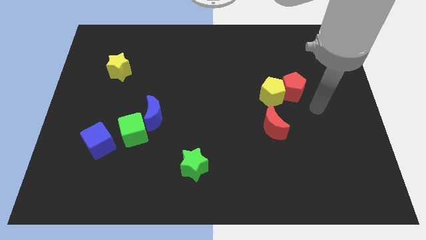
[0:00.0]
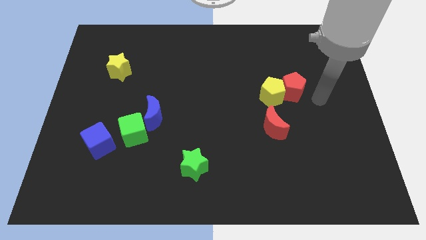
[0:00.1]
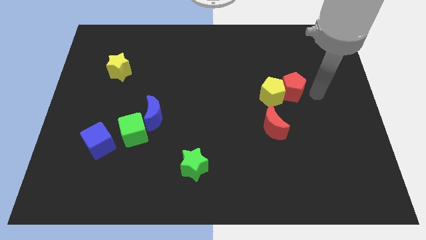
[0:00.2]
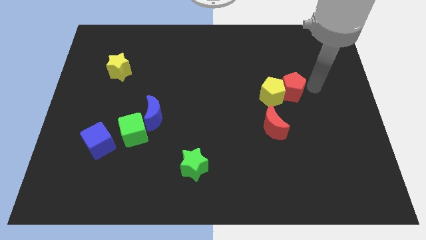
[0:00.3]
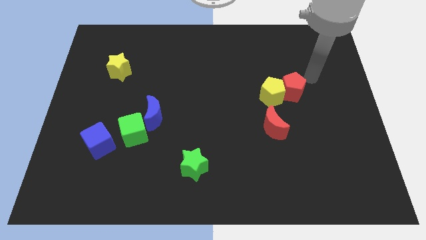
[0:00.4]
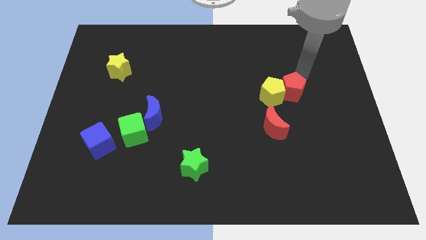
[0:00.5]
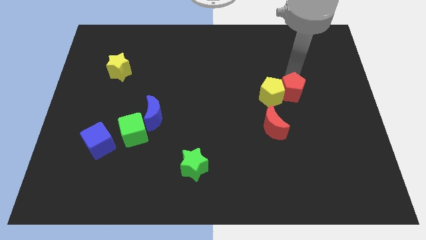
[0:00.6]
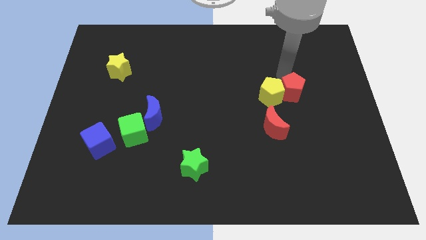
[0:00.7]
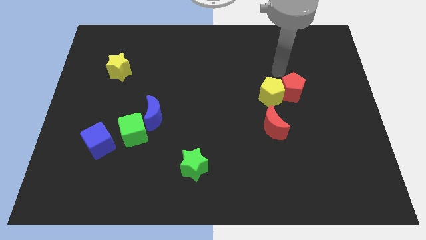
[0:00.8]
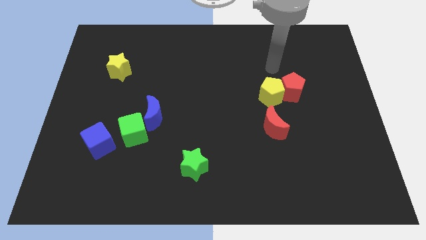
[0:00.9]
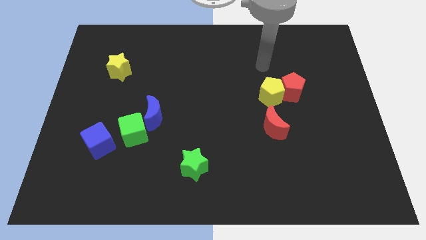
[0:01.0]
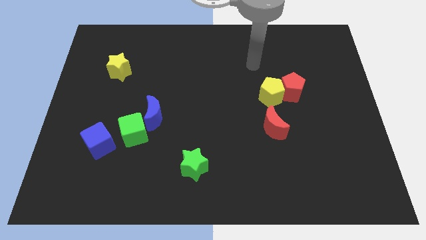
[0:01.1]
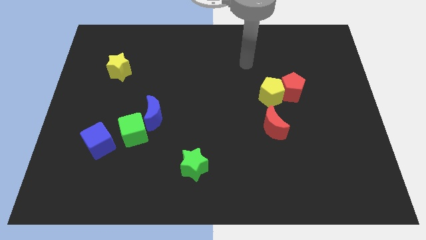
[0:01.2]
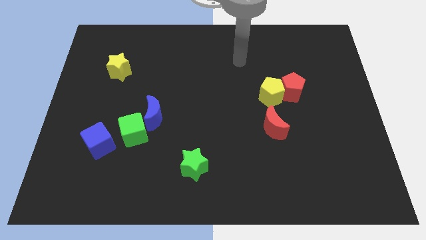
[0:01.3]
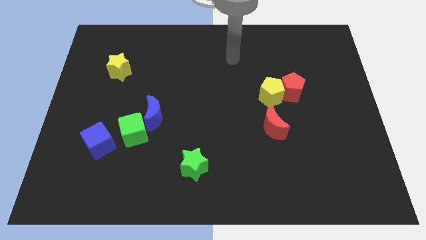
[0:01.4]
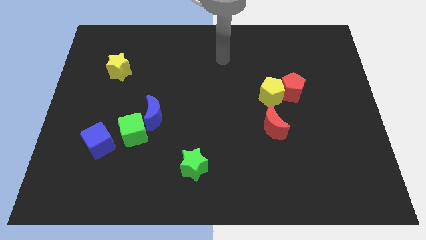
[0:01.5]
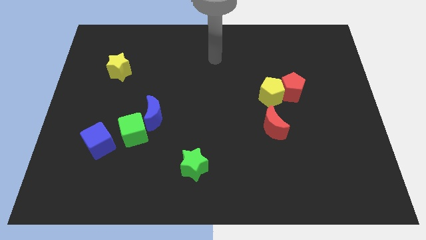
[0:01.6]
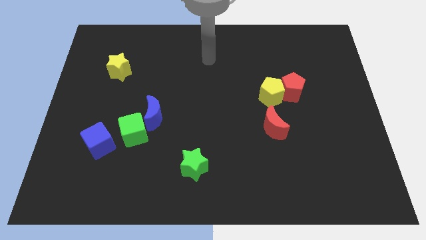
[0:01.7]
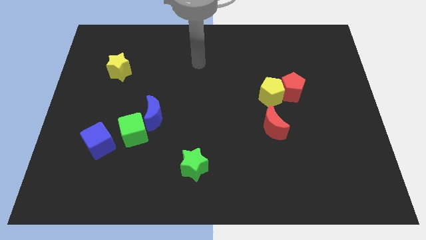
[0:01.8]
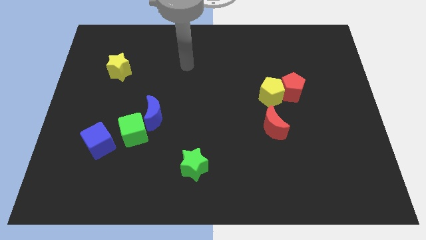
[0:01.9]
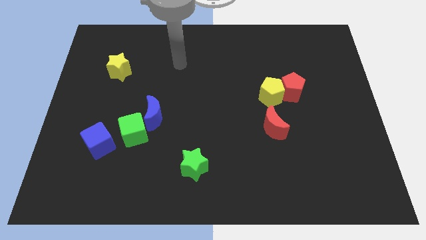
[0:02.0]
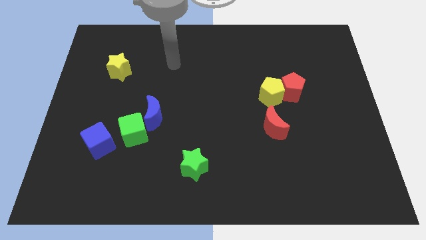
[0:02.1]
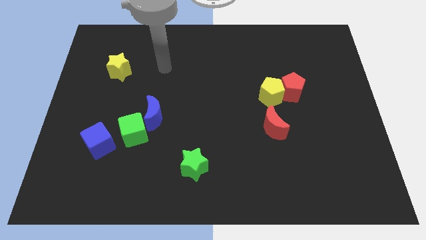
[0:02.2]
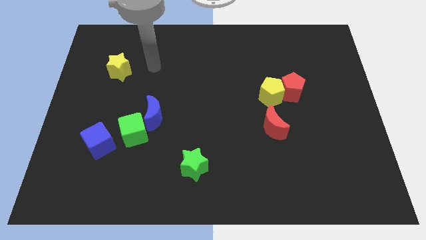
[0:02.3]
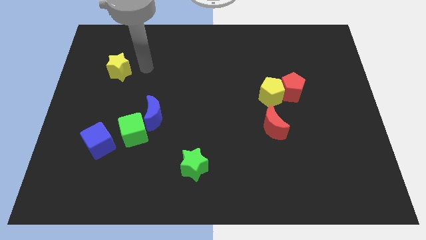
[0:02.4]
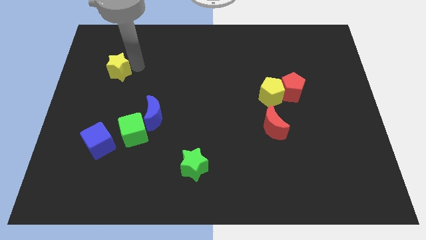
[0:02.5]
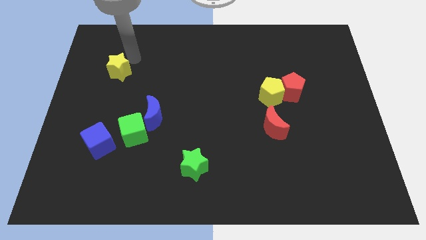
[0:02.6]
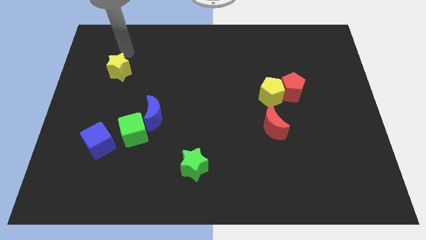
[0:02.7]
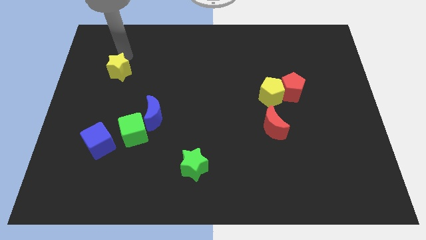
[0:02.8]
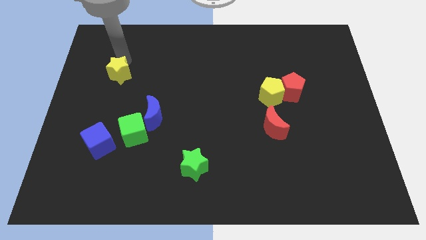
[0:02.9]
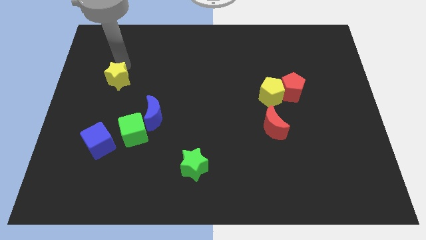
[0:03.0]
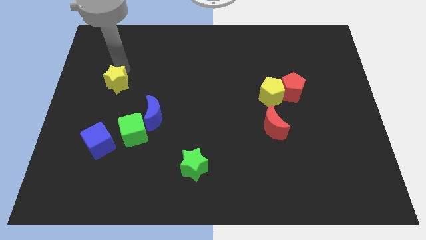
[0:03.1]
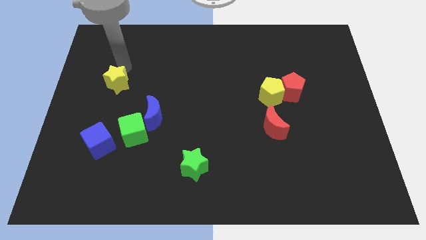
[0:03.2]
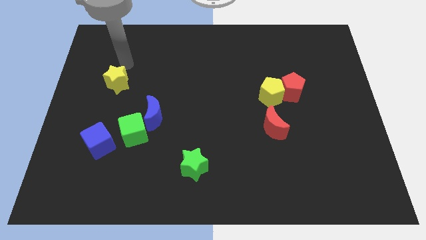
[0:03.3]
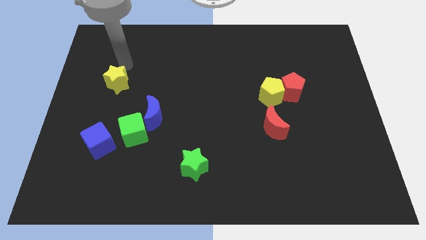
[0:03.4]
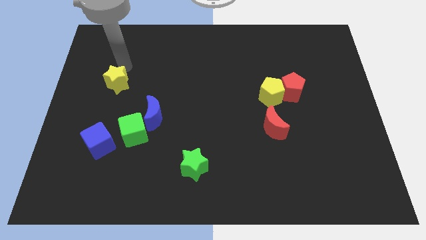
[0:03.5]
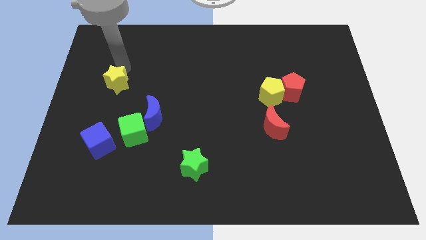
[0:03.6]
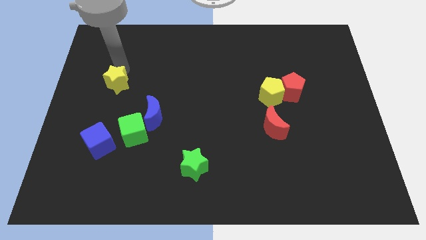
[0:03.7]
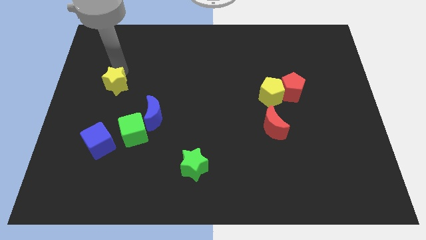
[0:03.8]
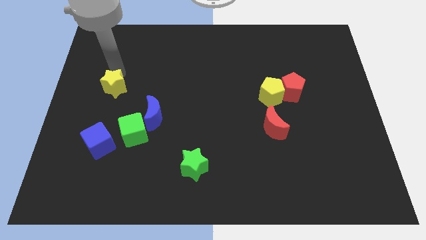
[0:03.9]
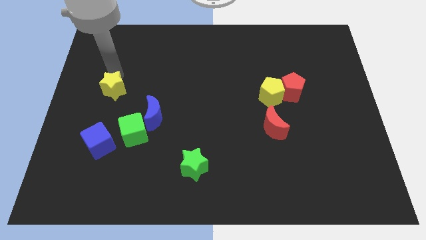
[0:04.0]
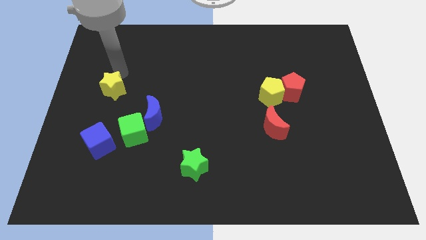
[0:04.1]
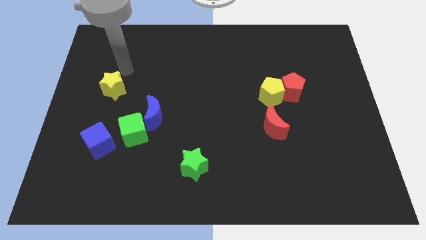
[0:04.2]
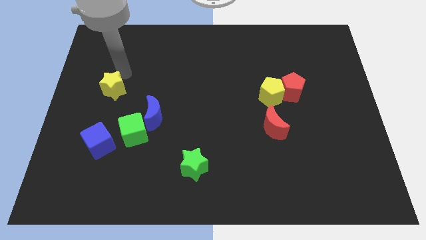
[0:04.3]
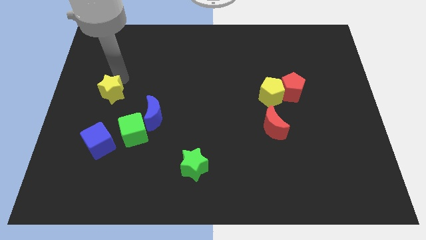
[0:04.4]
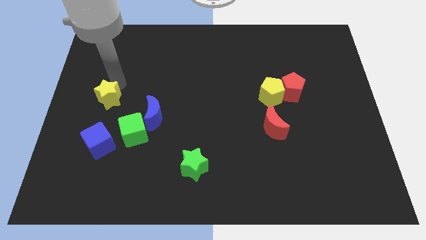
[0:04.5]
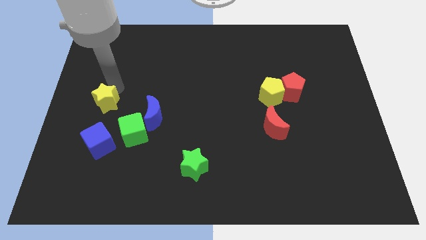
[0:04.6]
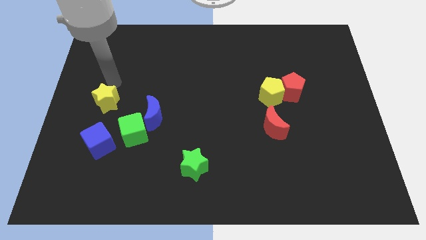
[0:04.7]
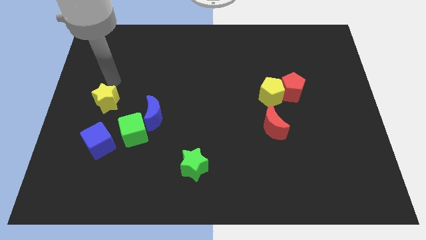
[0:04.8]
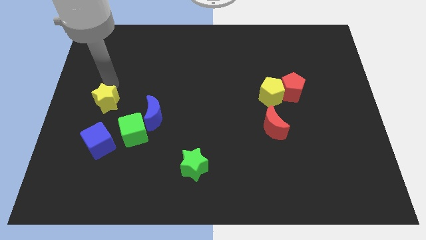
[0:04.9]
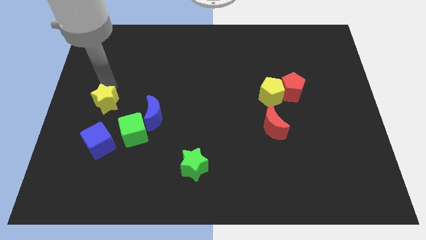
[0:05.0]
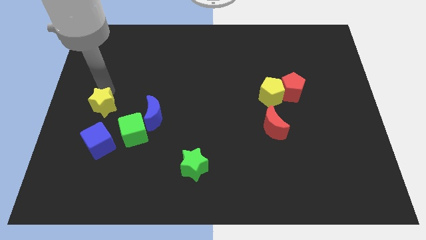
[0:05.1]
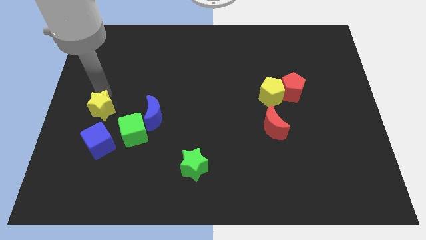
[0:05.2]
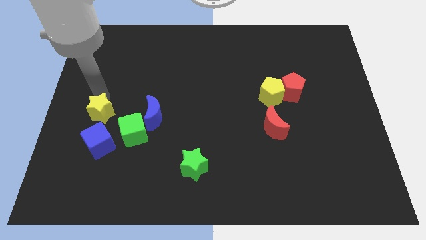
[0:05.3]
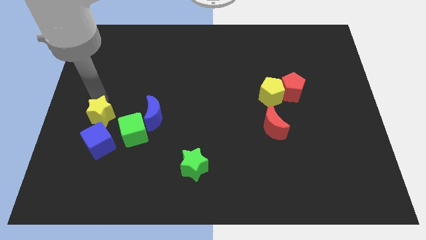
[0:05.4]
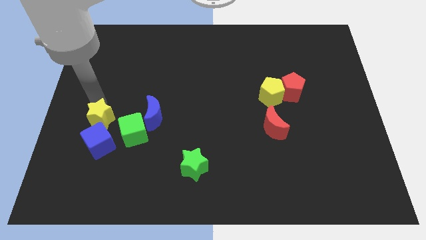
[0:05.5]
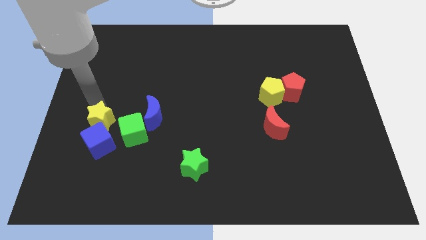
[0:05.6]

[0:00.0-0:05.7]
push the yellow star to the blue cube

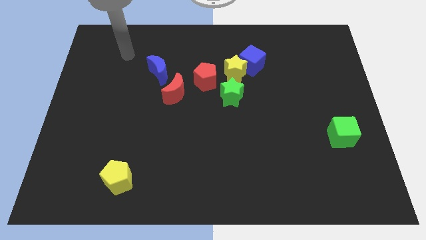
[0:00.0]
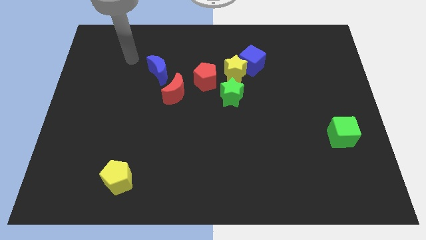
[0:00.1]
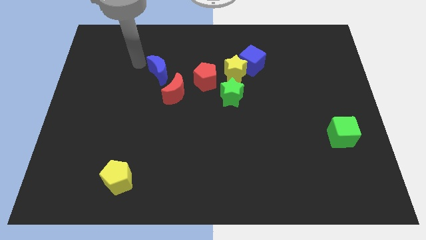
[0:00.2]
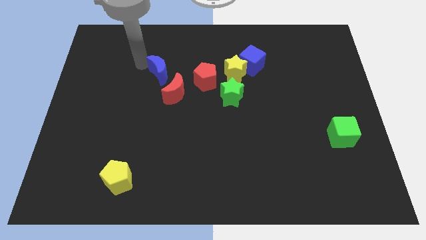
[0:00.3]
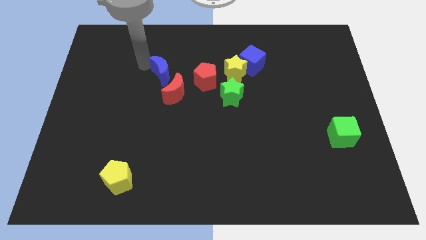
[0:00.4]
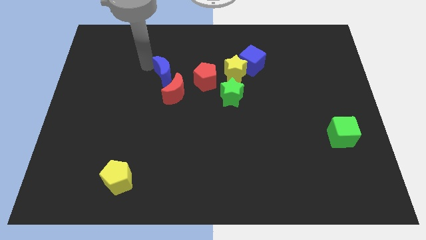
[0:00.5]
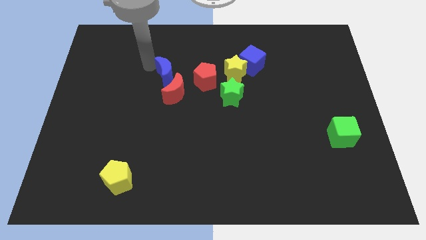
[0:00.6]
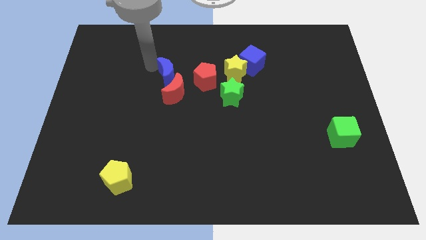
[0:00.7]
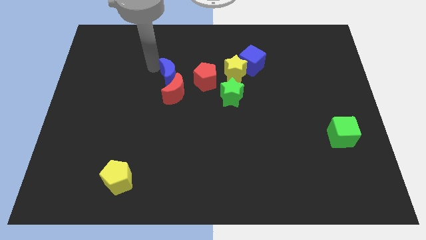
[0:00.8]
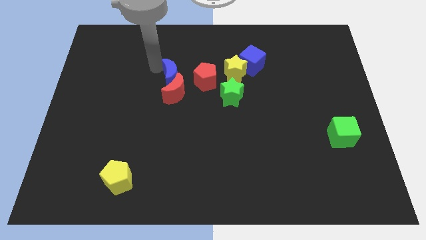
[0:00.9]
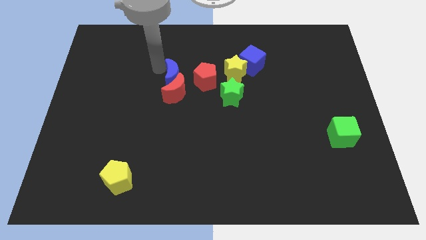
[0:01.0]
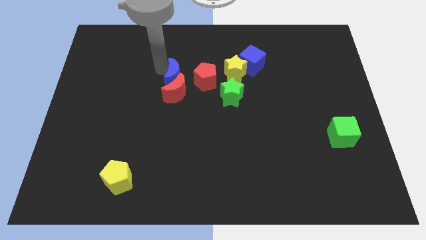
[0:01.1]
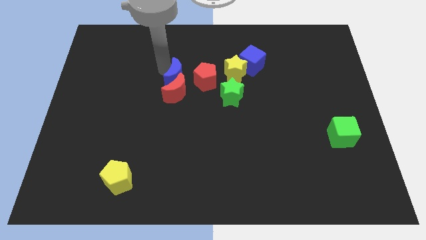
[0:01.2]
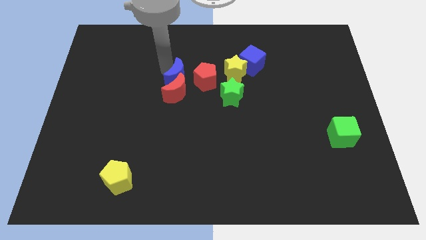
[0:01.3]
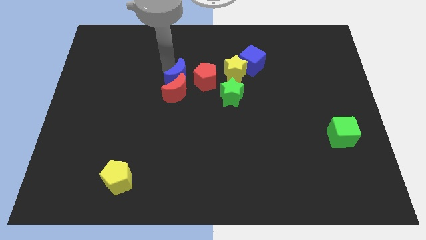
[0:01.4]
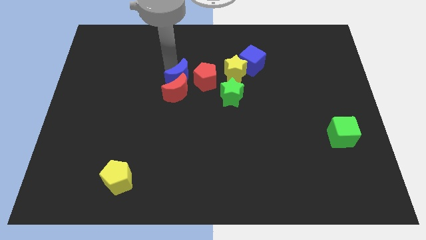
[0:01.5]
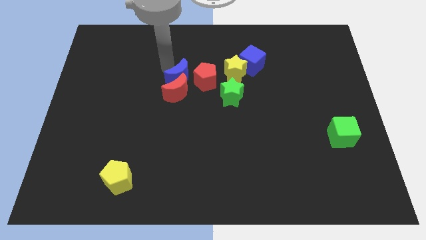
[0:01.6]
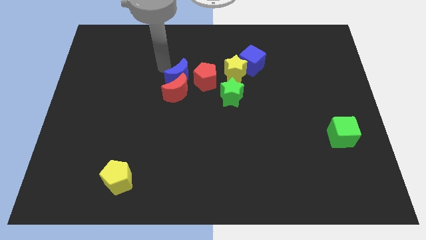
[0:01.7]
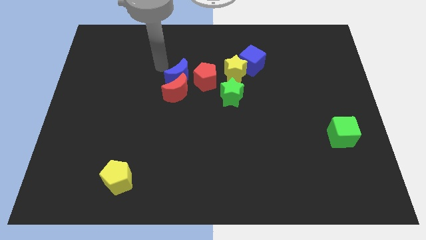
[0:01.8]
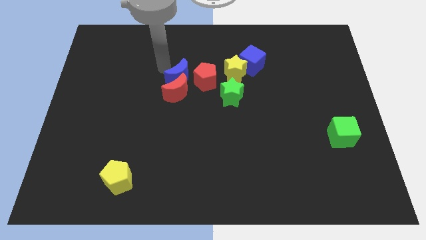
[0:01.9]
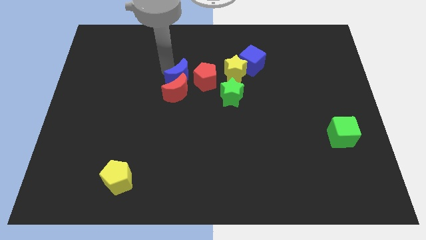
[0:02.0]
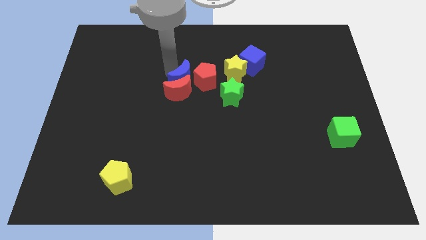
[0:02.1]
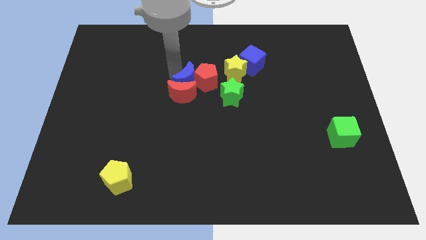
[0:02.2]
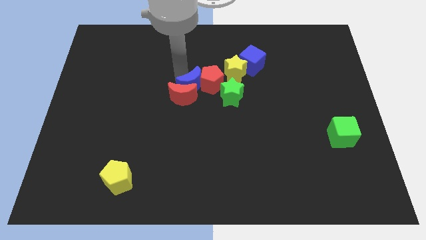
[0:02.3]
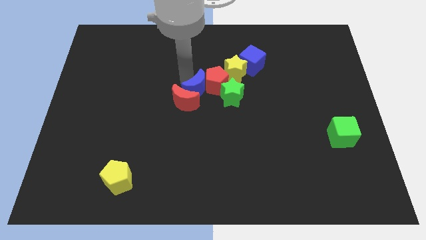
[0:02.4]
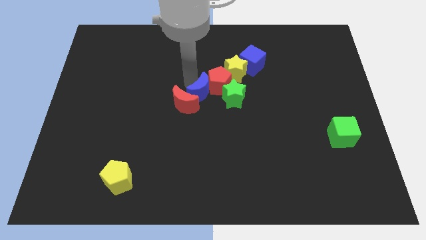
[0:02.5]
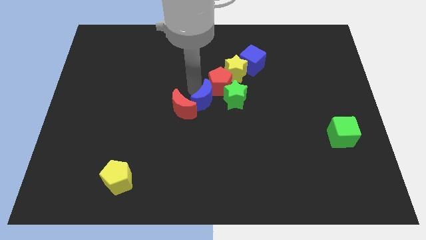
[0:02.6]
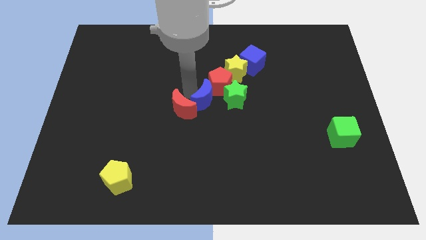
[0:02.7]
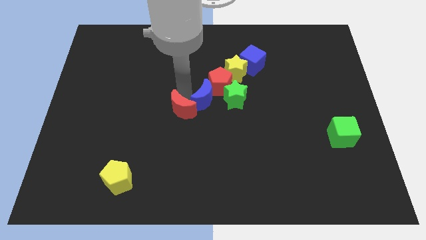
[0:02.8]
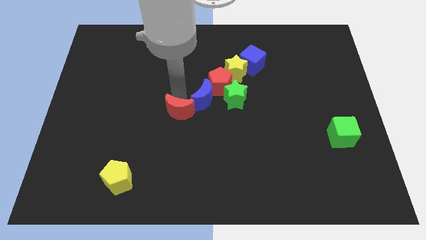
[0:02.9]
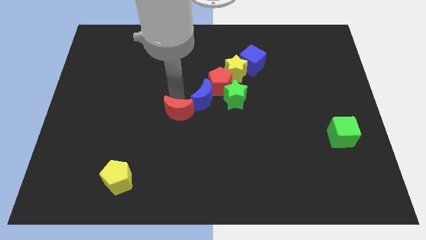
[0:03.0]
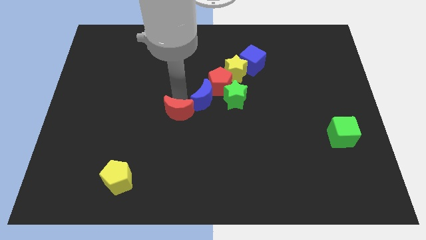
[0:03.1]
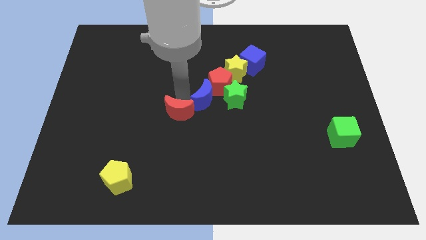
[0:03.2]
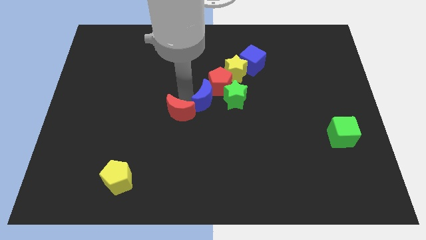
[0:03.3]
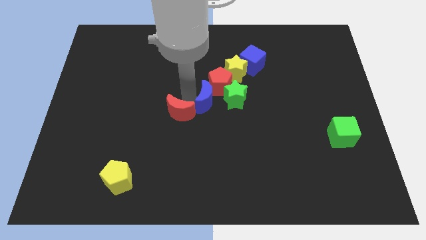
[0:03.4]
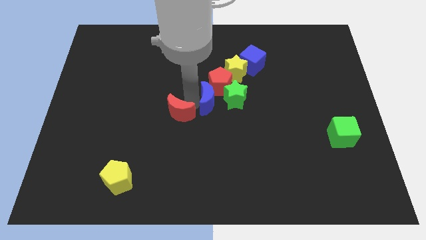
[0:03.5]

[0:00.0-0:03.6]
slide the blue moon close to the green star
